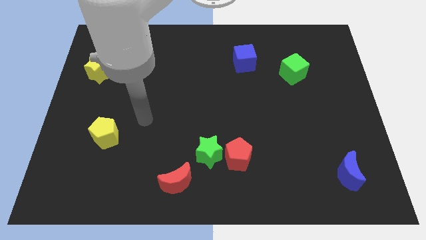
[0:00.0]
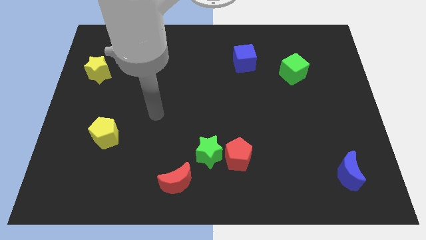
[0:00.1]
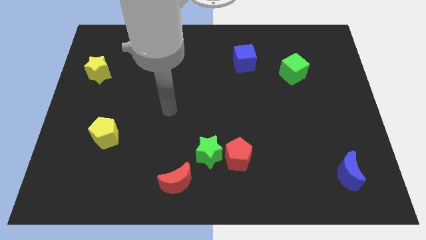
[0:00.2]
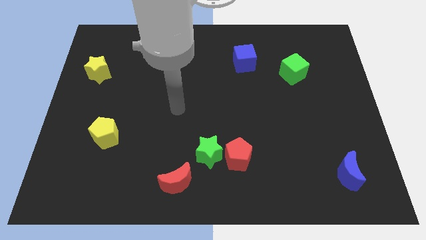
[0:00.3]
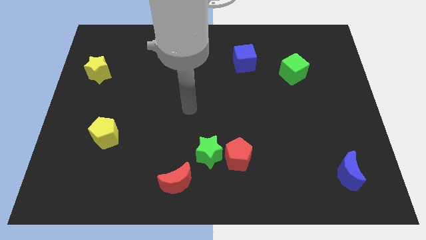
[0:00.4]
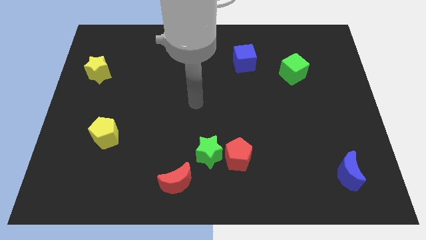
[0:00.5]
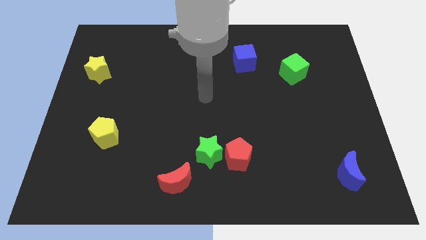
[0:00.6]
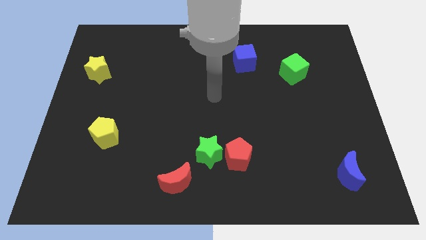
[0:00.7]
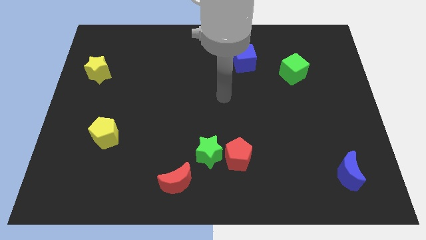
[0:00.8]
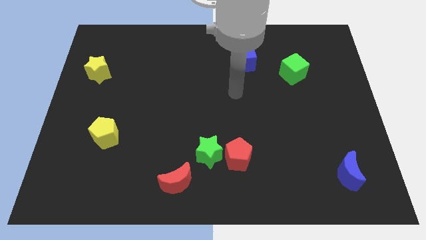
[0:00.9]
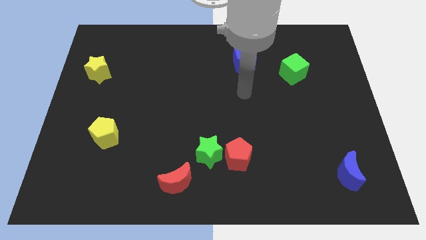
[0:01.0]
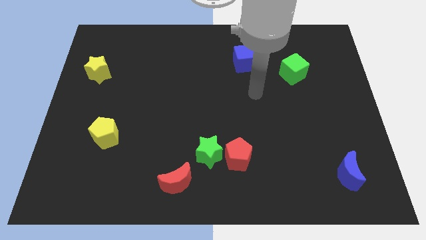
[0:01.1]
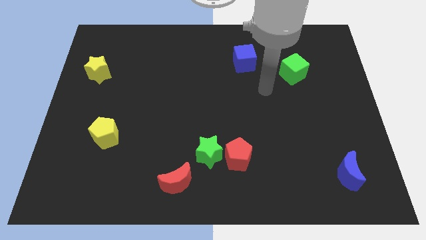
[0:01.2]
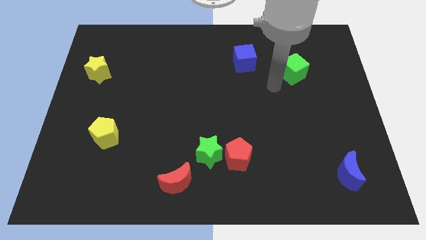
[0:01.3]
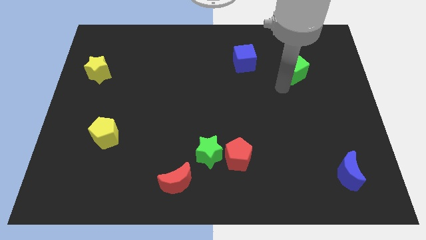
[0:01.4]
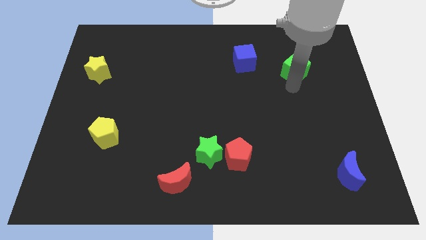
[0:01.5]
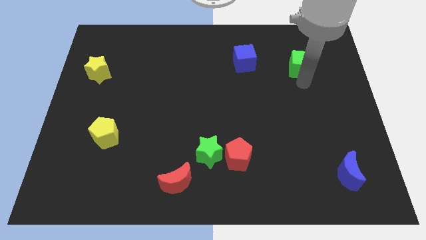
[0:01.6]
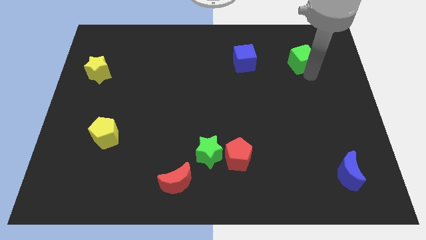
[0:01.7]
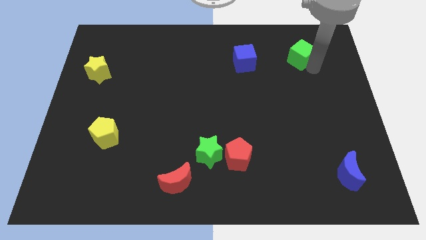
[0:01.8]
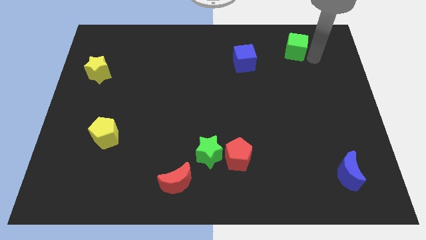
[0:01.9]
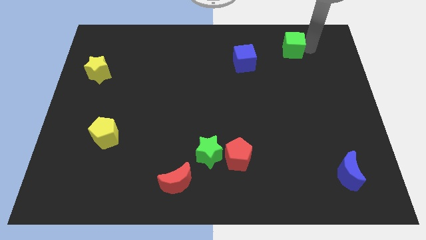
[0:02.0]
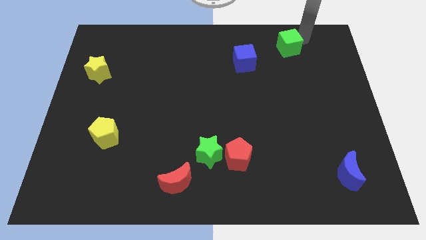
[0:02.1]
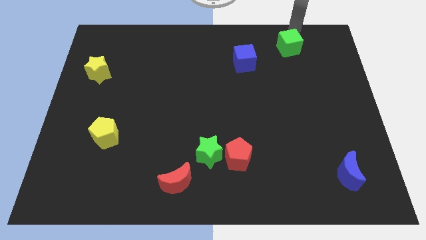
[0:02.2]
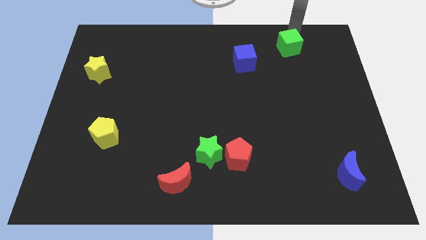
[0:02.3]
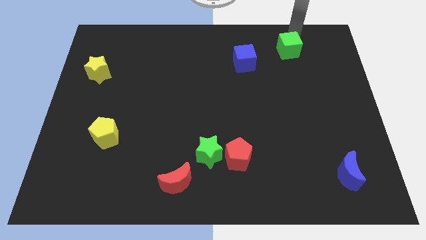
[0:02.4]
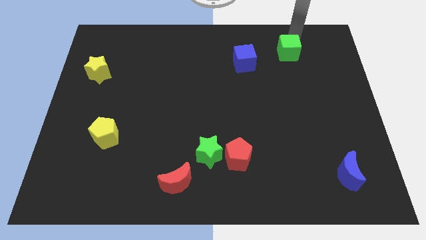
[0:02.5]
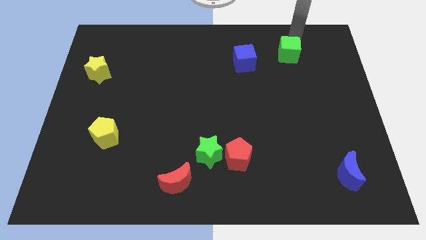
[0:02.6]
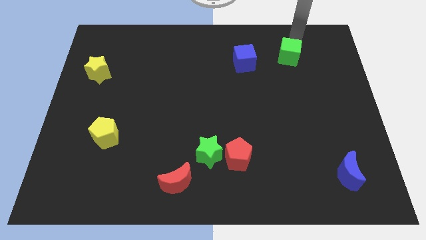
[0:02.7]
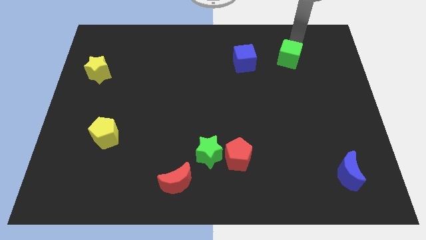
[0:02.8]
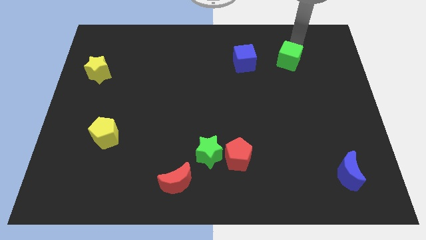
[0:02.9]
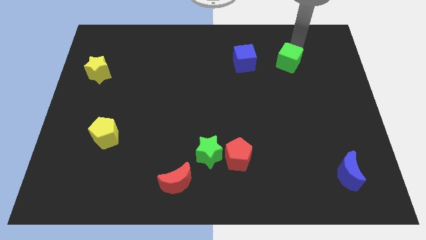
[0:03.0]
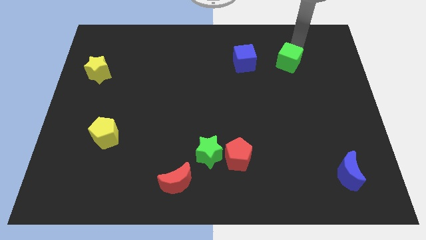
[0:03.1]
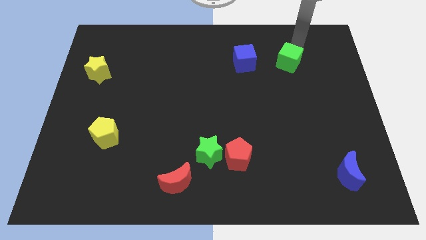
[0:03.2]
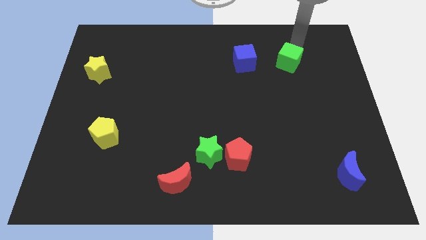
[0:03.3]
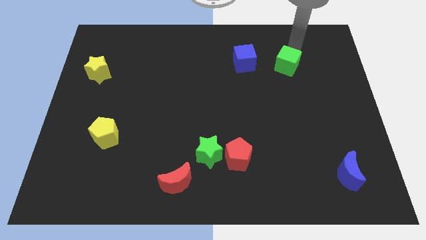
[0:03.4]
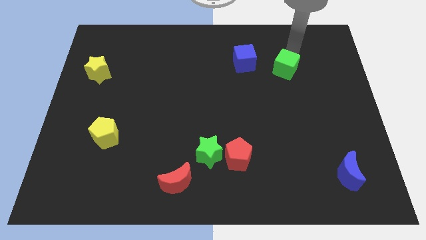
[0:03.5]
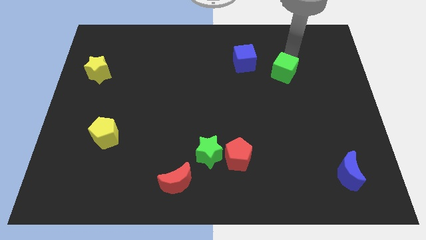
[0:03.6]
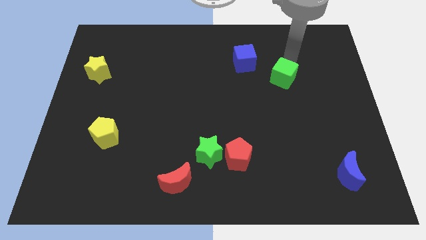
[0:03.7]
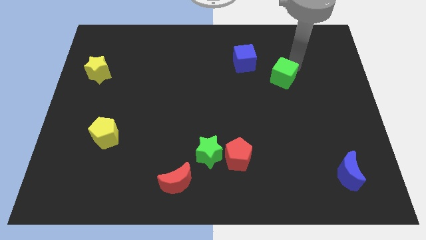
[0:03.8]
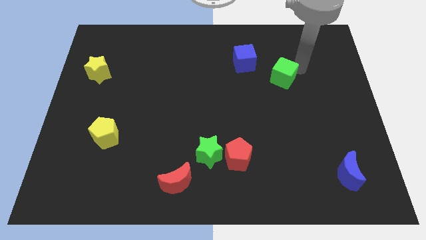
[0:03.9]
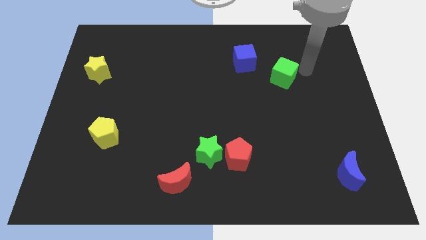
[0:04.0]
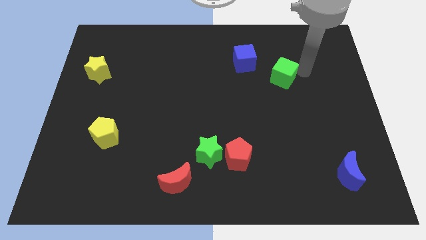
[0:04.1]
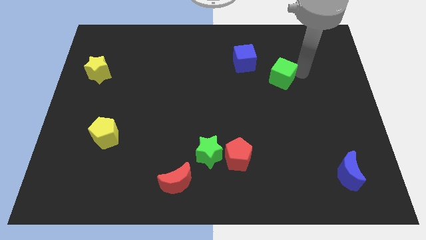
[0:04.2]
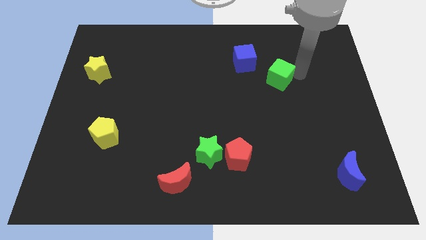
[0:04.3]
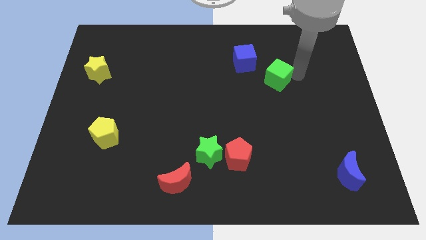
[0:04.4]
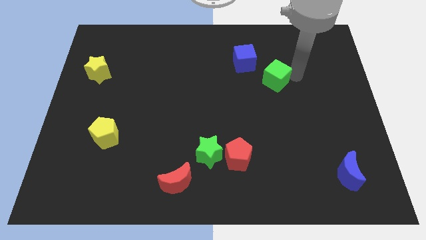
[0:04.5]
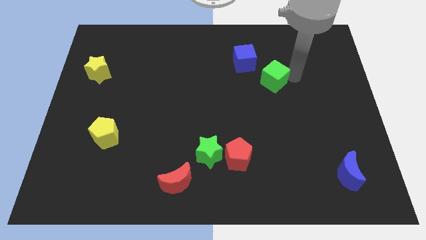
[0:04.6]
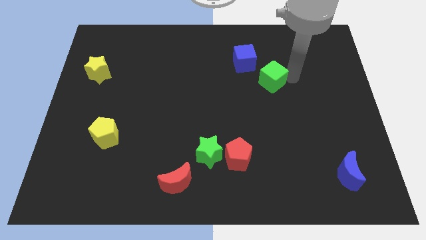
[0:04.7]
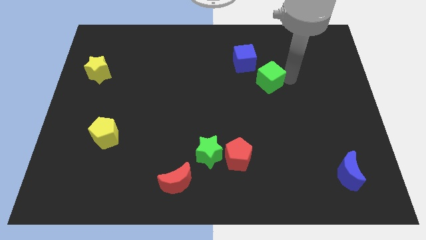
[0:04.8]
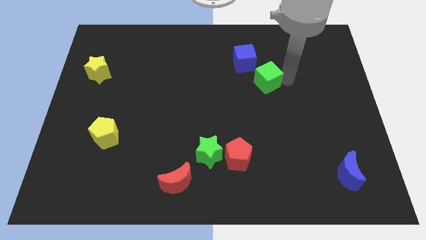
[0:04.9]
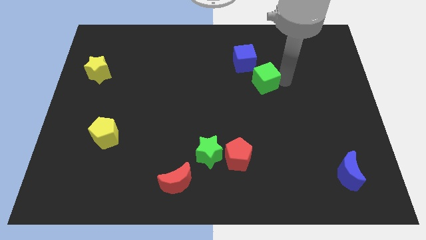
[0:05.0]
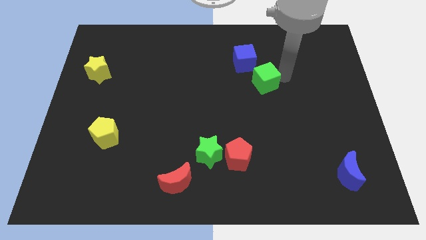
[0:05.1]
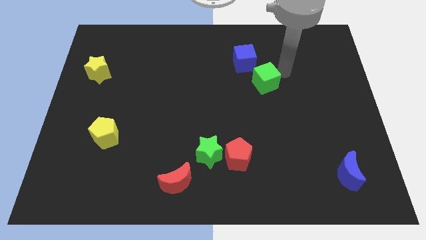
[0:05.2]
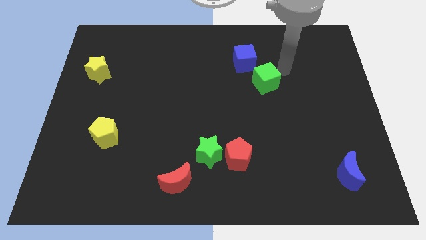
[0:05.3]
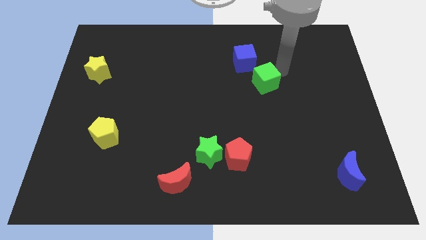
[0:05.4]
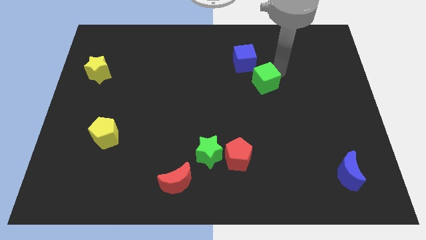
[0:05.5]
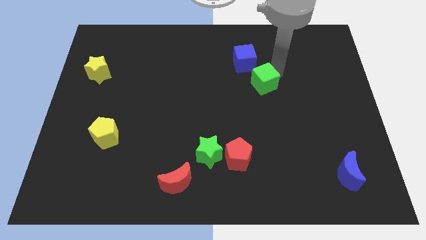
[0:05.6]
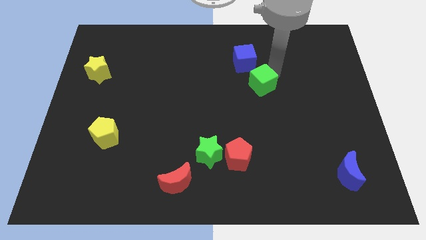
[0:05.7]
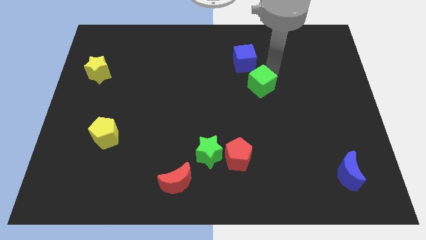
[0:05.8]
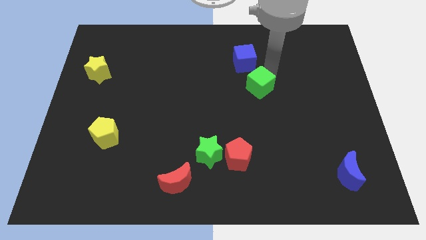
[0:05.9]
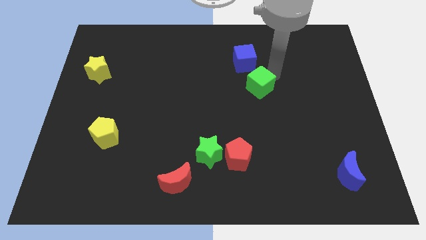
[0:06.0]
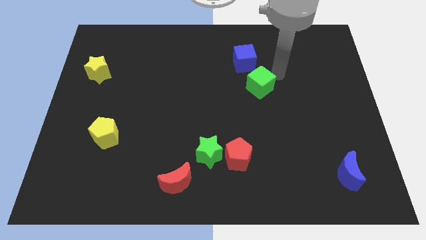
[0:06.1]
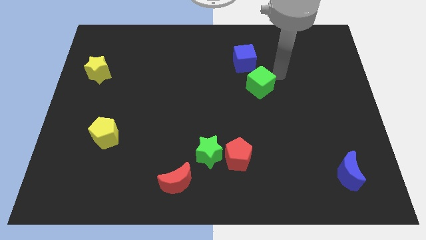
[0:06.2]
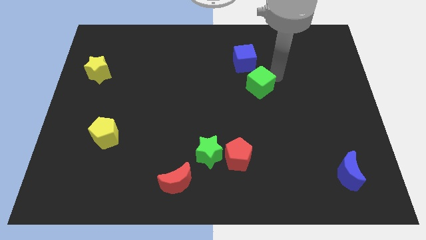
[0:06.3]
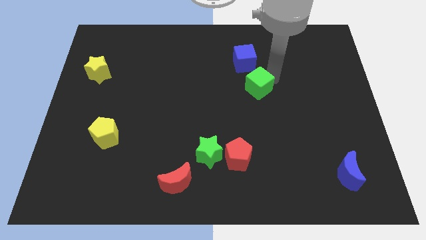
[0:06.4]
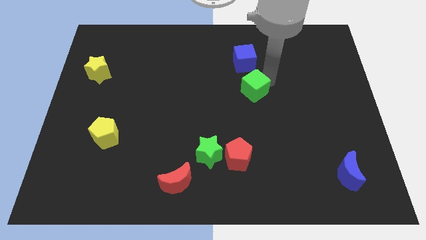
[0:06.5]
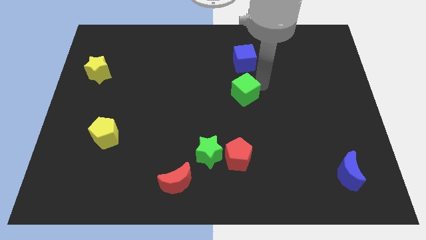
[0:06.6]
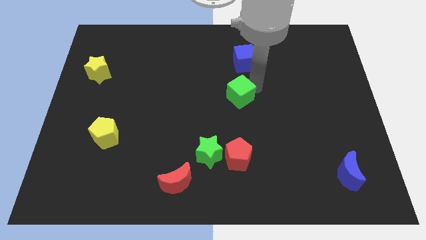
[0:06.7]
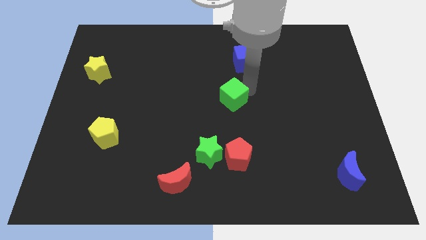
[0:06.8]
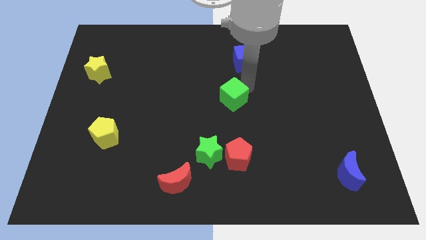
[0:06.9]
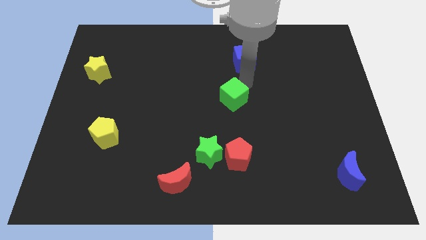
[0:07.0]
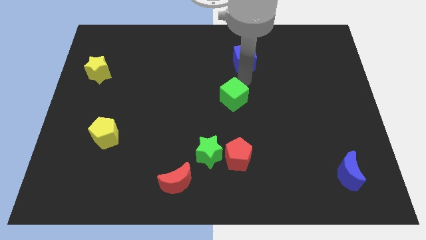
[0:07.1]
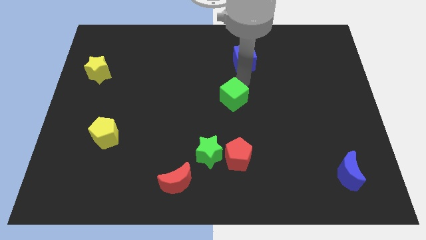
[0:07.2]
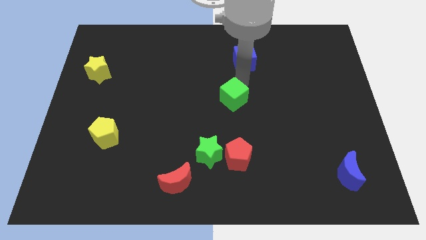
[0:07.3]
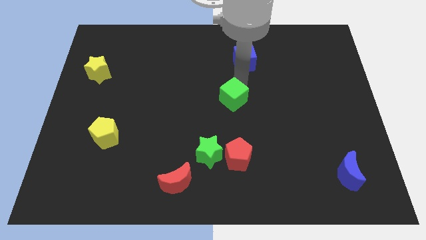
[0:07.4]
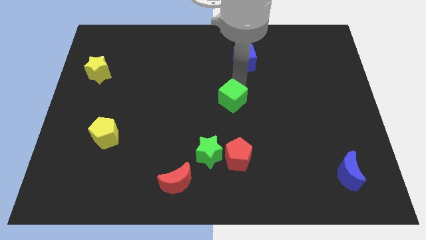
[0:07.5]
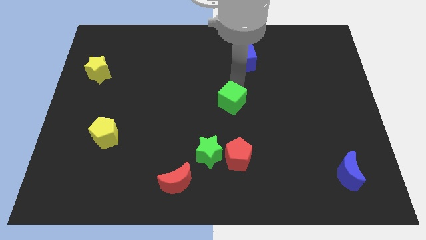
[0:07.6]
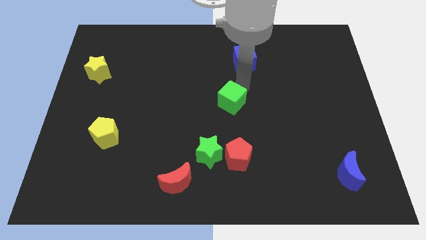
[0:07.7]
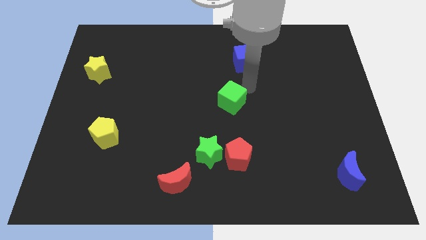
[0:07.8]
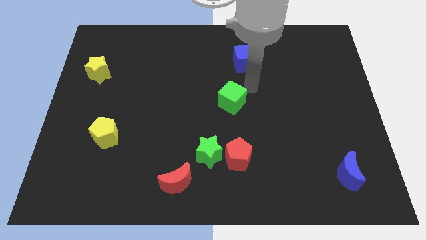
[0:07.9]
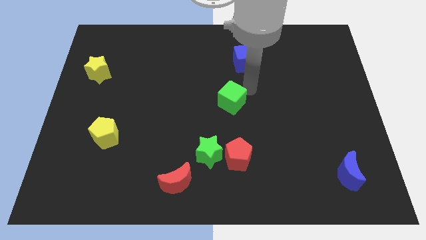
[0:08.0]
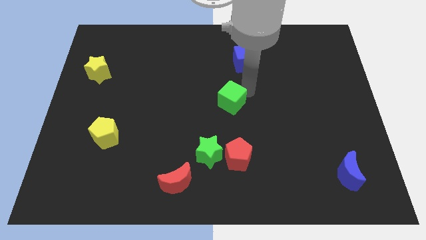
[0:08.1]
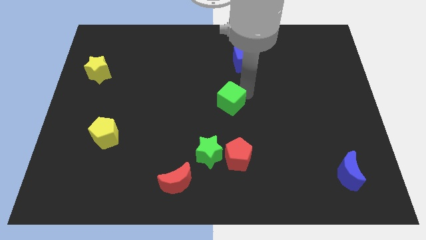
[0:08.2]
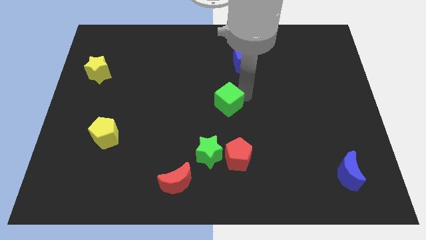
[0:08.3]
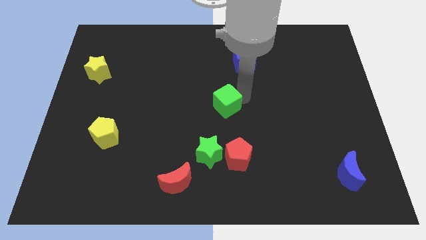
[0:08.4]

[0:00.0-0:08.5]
put the green cube to the top side of the green star
